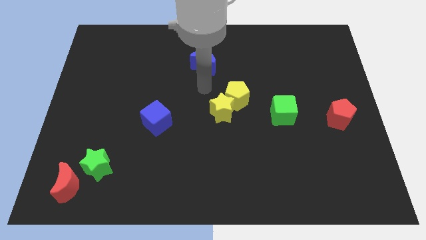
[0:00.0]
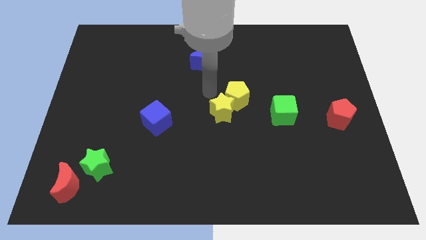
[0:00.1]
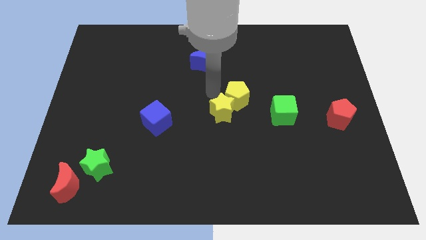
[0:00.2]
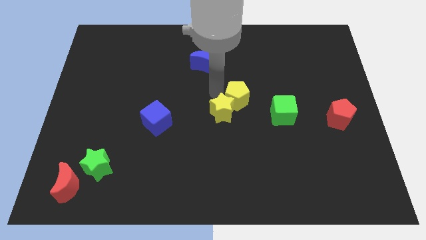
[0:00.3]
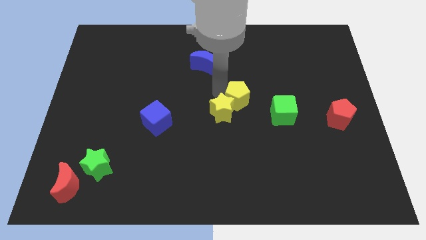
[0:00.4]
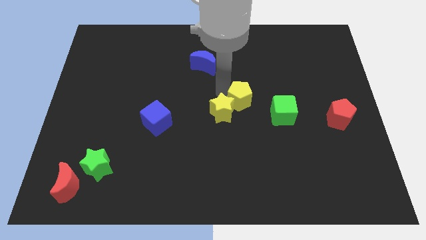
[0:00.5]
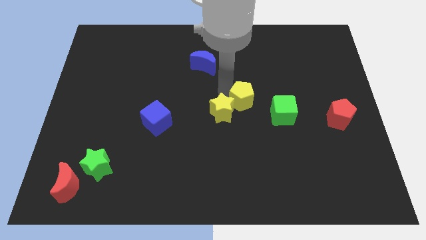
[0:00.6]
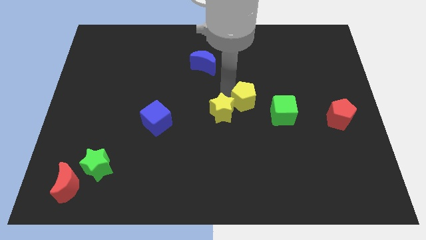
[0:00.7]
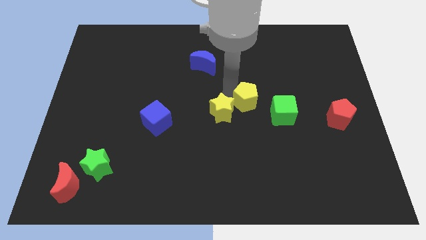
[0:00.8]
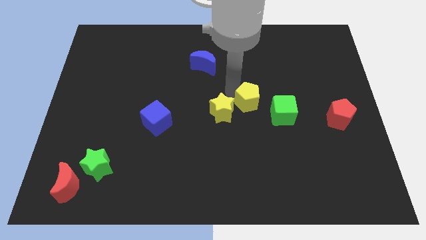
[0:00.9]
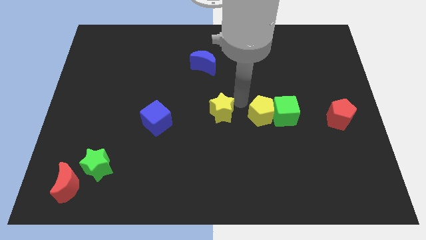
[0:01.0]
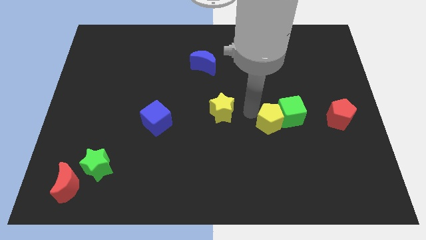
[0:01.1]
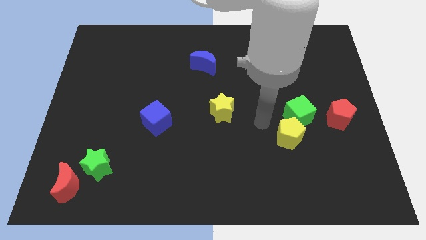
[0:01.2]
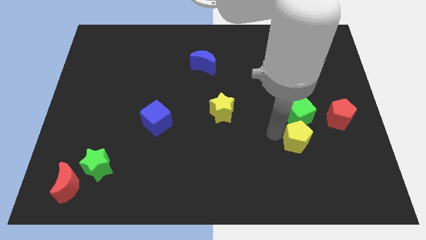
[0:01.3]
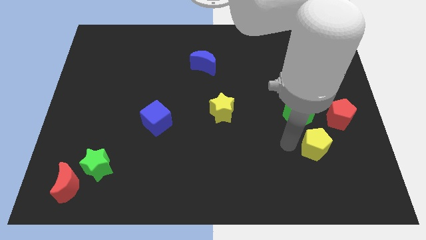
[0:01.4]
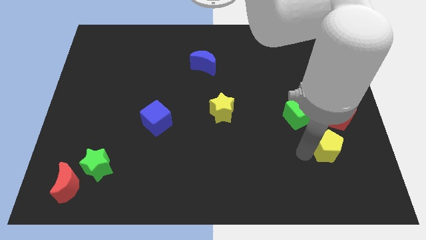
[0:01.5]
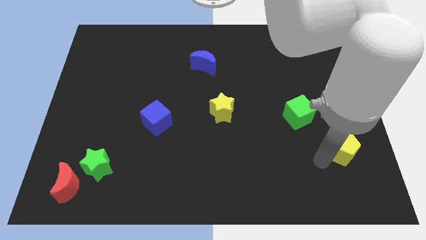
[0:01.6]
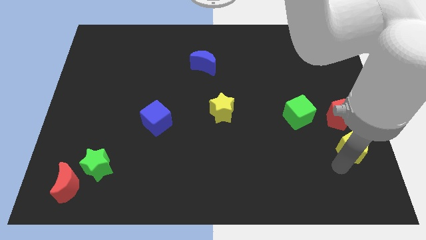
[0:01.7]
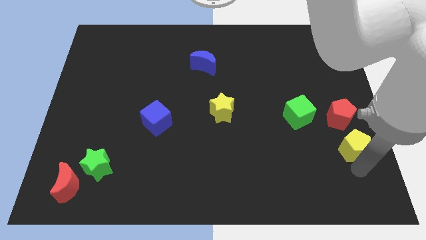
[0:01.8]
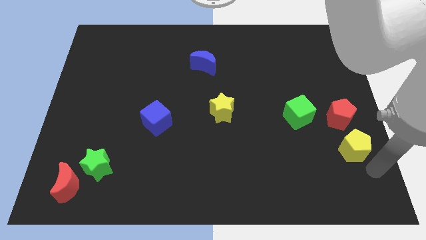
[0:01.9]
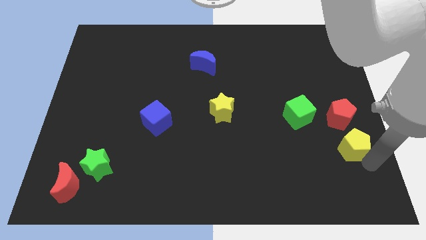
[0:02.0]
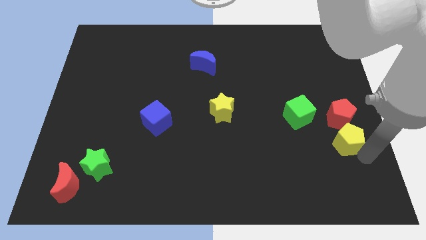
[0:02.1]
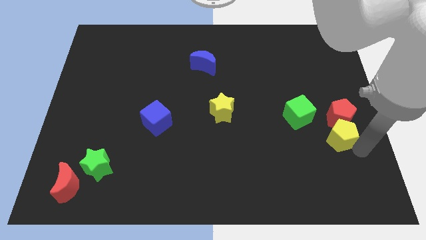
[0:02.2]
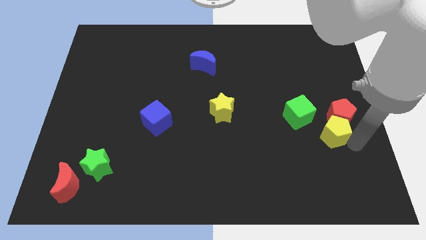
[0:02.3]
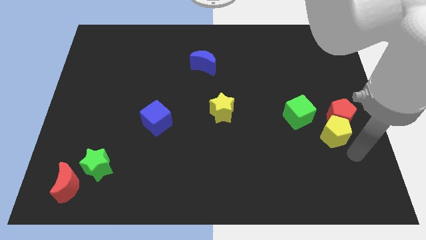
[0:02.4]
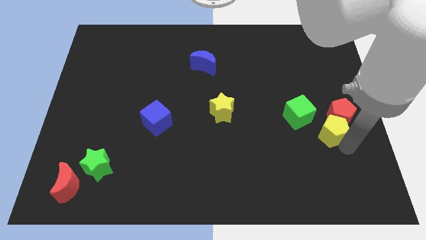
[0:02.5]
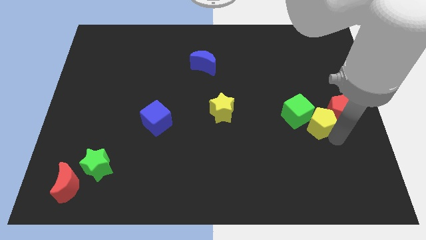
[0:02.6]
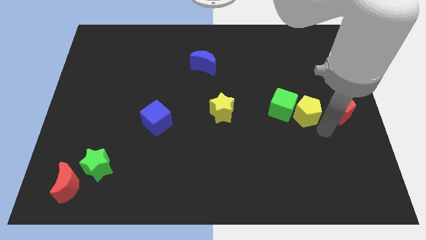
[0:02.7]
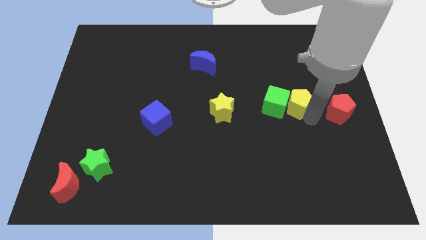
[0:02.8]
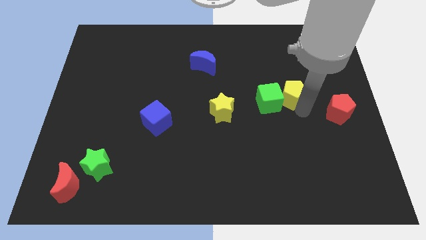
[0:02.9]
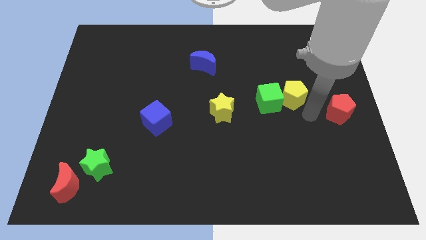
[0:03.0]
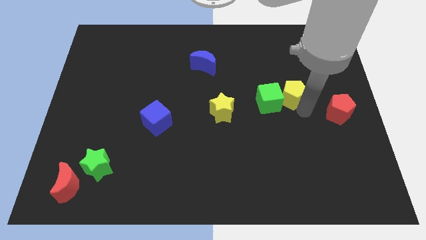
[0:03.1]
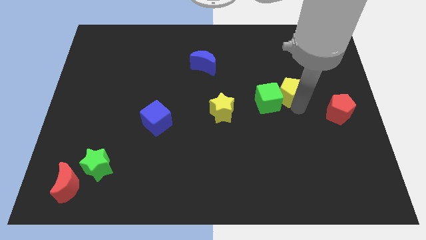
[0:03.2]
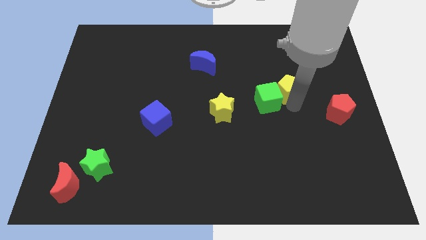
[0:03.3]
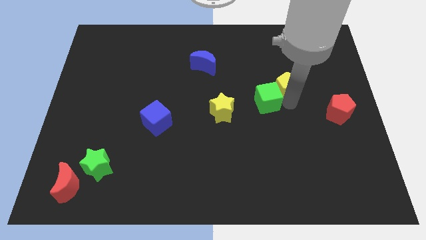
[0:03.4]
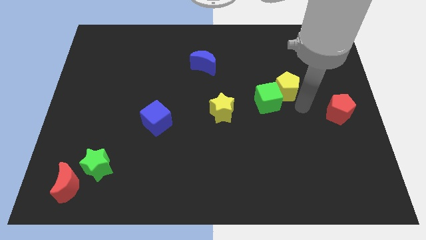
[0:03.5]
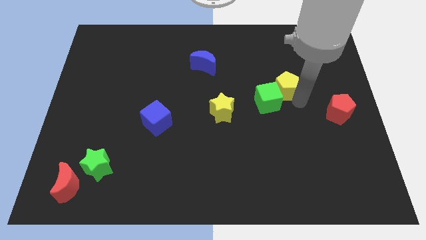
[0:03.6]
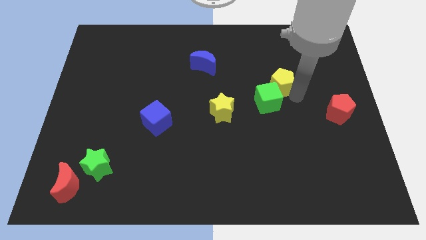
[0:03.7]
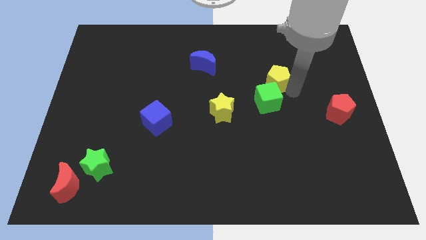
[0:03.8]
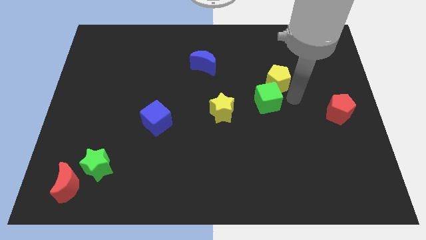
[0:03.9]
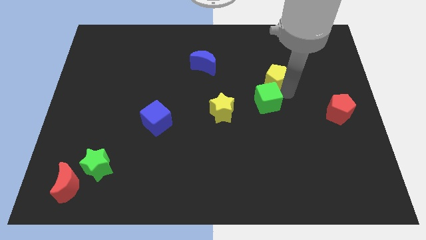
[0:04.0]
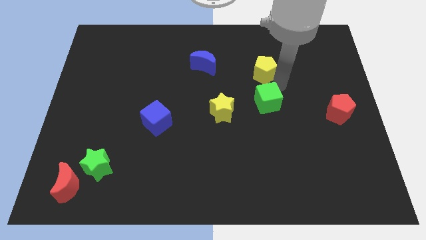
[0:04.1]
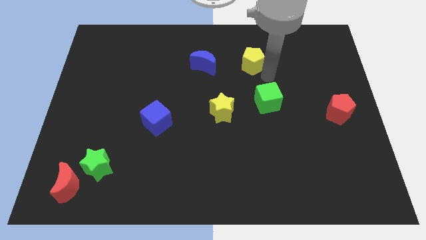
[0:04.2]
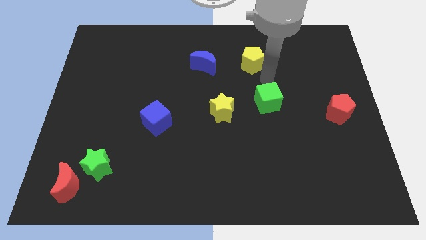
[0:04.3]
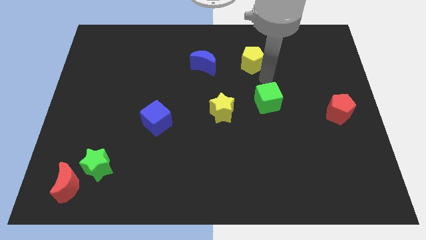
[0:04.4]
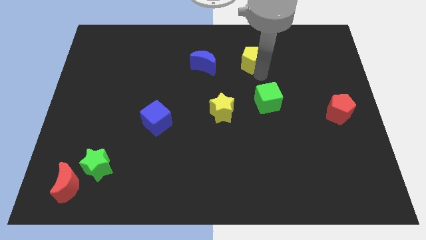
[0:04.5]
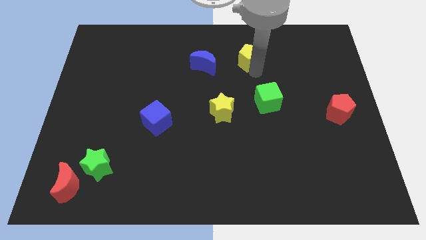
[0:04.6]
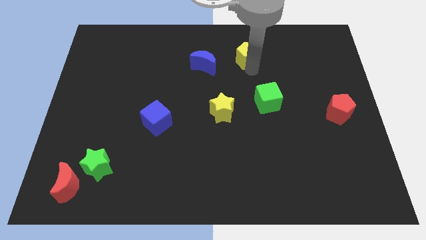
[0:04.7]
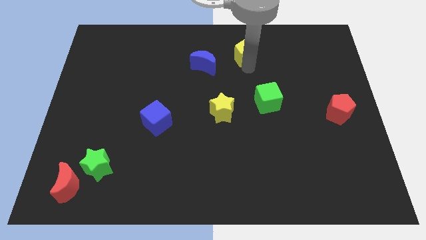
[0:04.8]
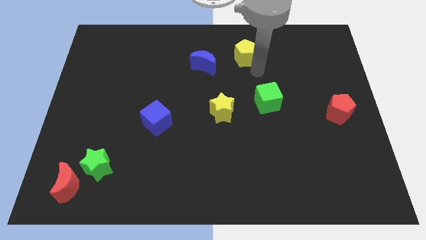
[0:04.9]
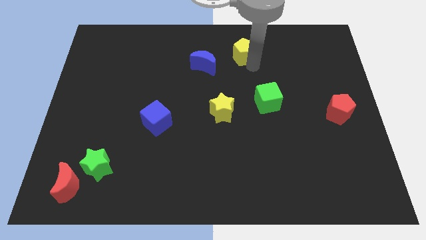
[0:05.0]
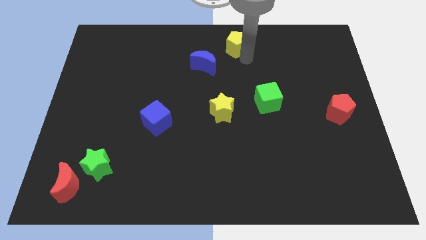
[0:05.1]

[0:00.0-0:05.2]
push the yellow pentagon to the top
